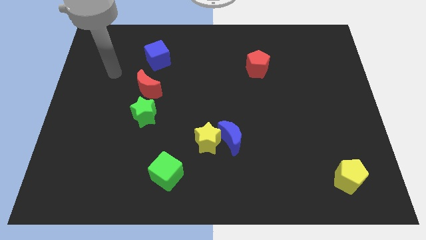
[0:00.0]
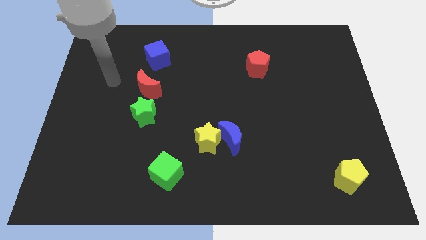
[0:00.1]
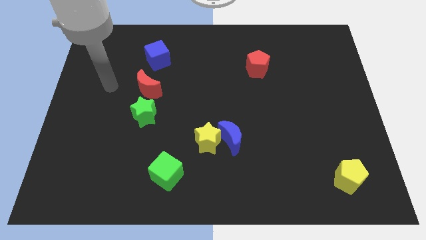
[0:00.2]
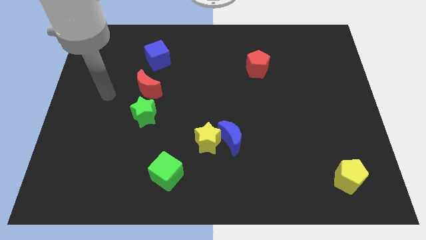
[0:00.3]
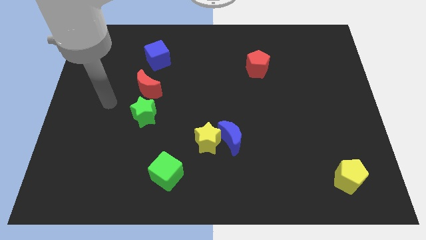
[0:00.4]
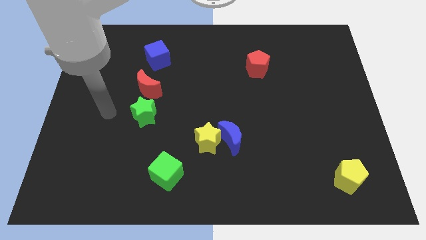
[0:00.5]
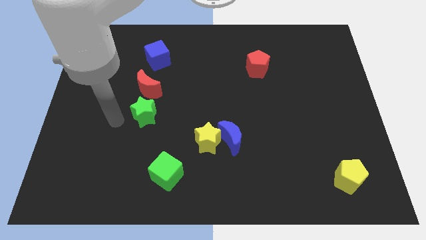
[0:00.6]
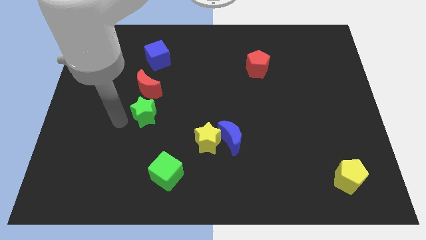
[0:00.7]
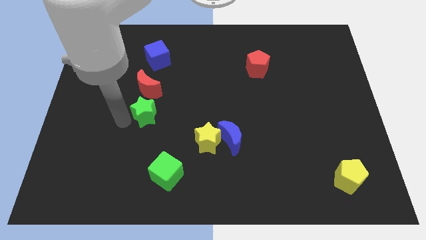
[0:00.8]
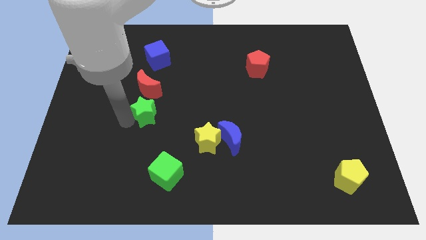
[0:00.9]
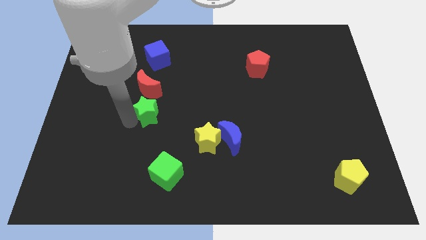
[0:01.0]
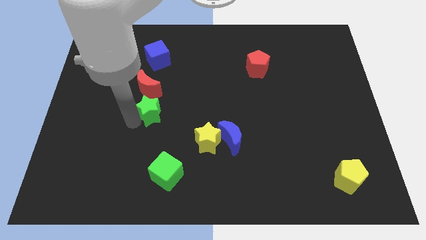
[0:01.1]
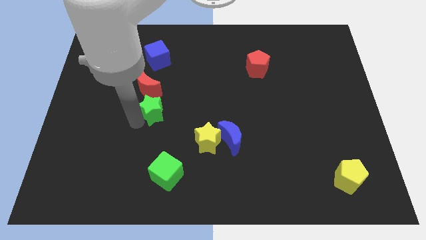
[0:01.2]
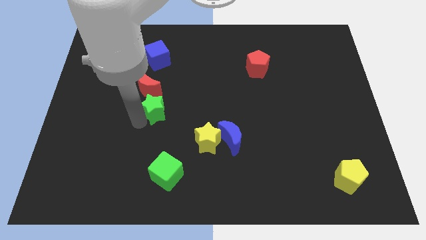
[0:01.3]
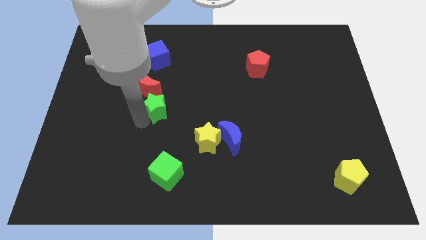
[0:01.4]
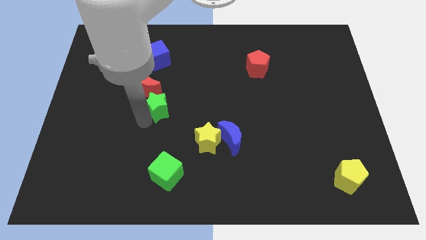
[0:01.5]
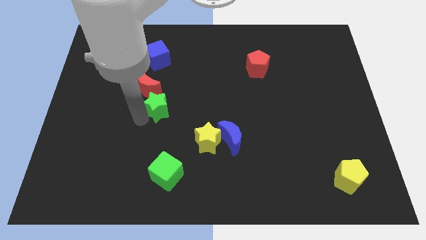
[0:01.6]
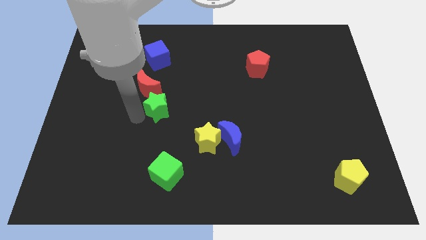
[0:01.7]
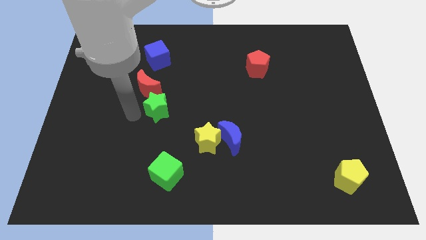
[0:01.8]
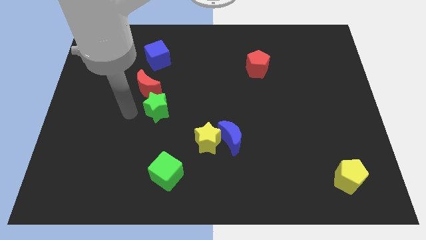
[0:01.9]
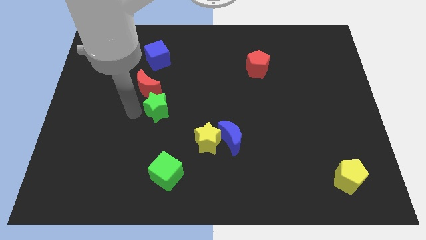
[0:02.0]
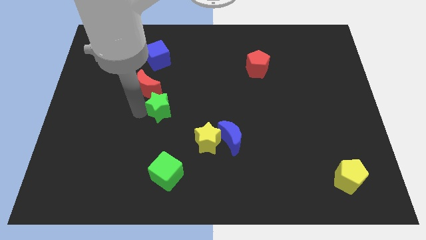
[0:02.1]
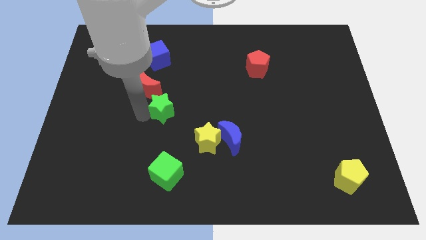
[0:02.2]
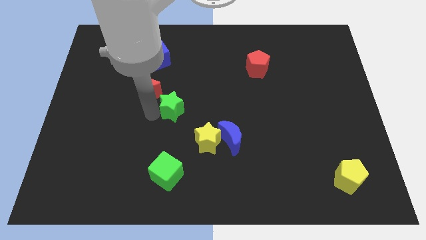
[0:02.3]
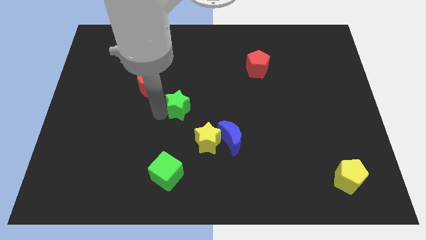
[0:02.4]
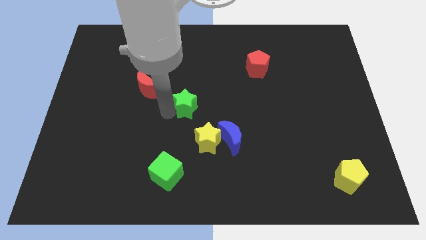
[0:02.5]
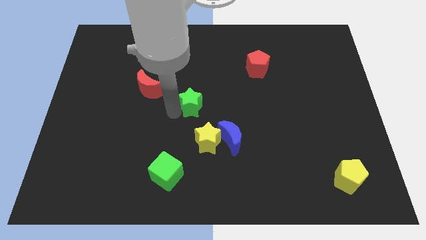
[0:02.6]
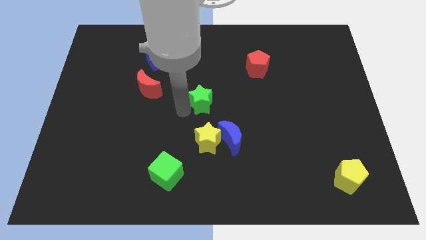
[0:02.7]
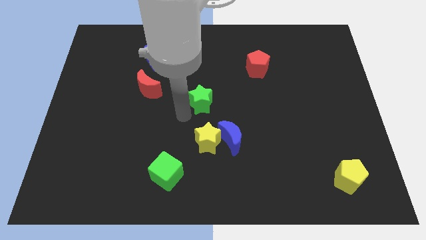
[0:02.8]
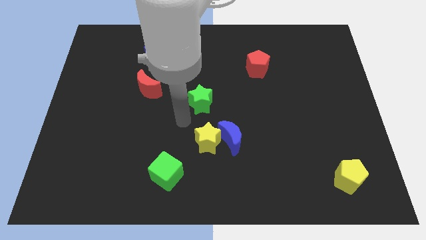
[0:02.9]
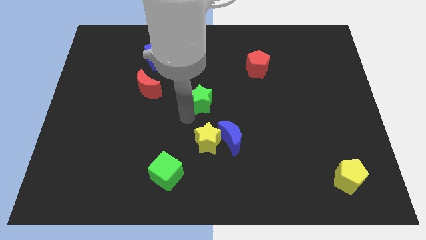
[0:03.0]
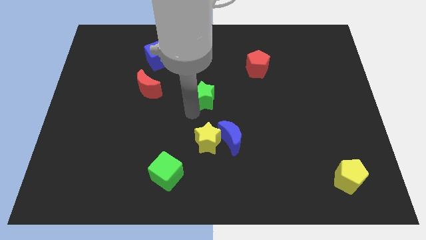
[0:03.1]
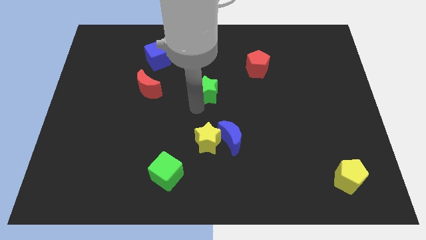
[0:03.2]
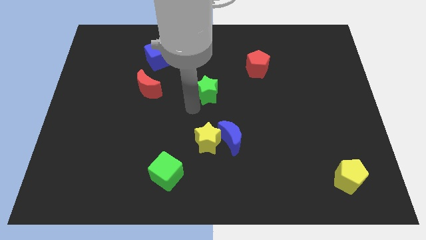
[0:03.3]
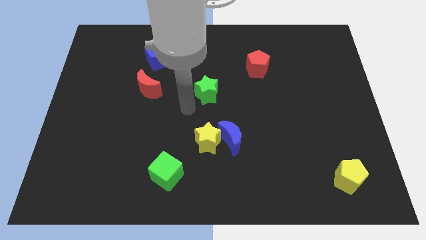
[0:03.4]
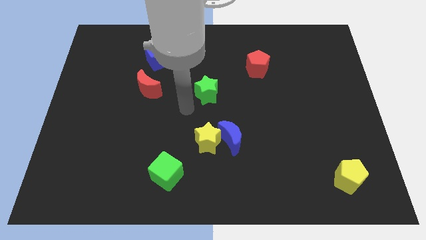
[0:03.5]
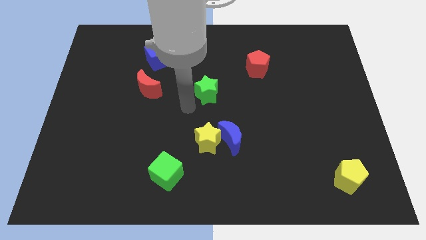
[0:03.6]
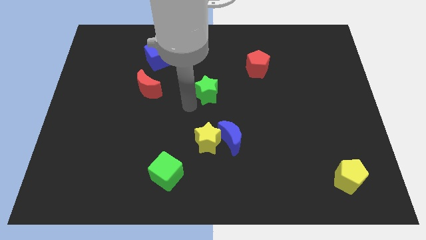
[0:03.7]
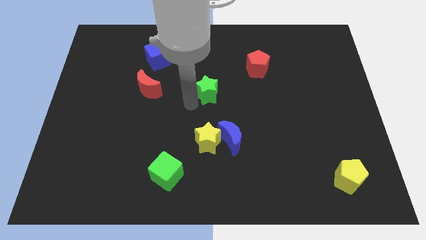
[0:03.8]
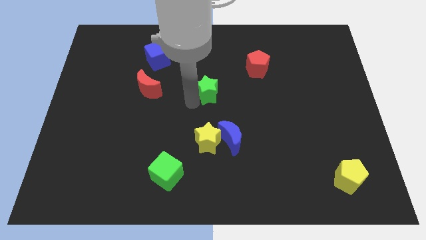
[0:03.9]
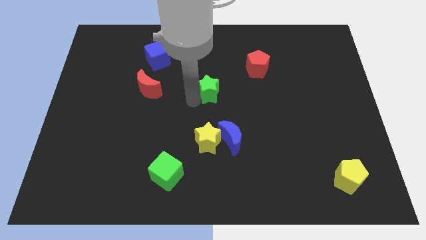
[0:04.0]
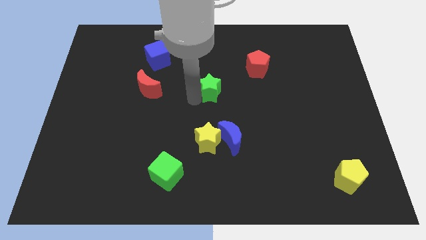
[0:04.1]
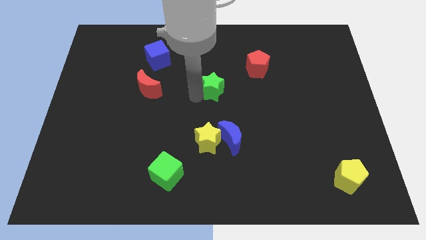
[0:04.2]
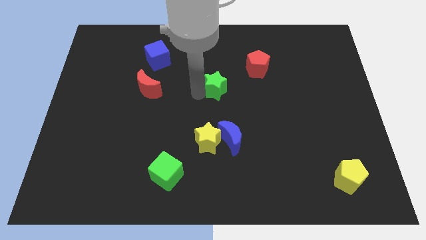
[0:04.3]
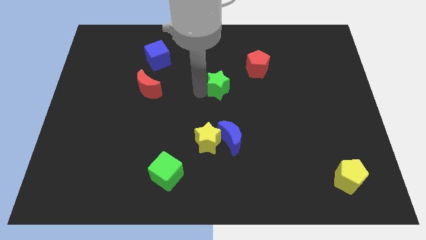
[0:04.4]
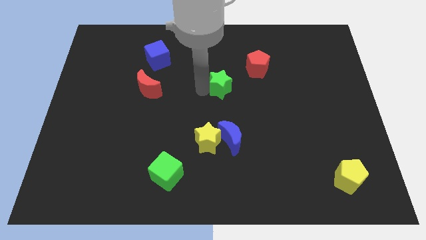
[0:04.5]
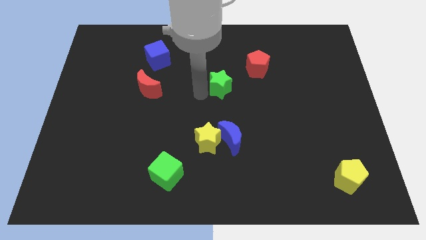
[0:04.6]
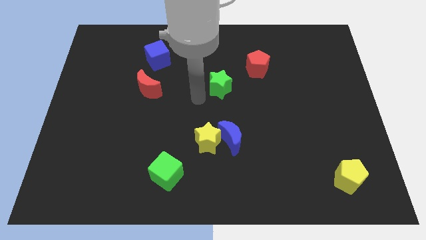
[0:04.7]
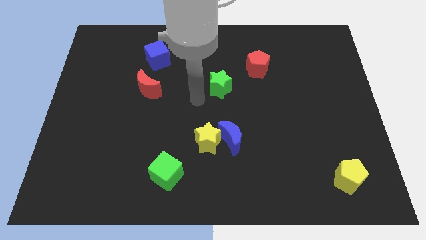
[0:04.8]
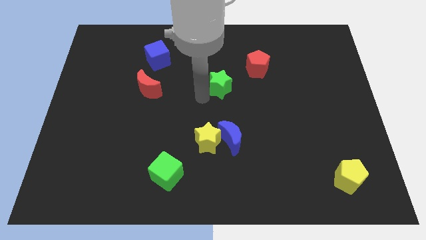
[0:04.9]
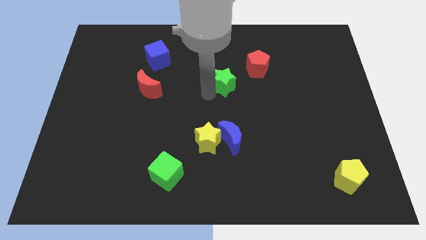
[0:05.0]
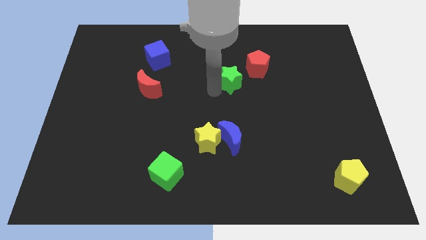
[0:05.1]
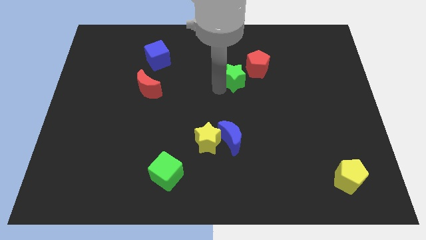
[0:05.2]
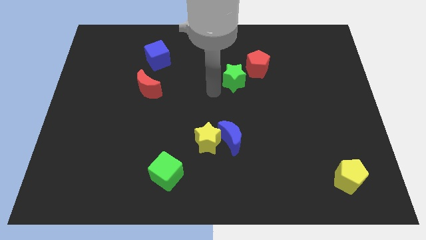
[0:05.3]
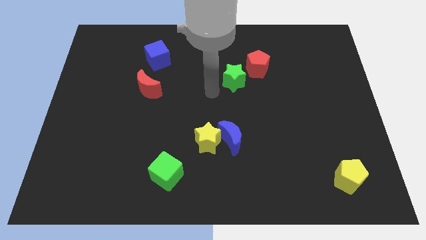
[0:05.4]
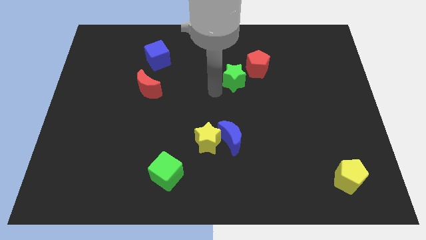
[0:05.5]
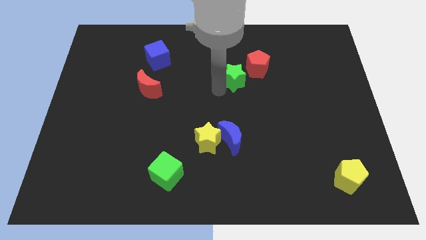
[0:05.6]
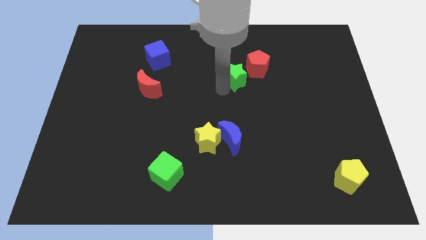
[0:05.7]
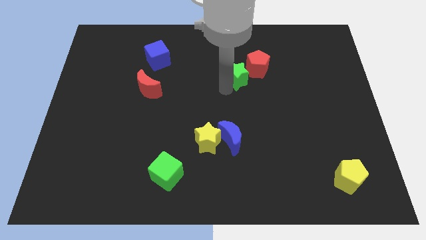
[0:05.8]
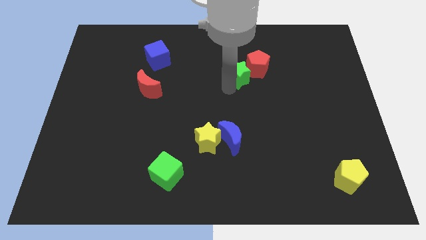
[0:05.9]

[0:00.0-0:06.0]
slide the green star to the red pentagon

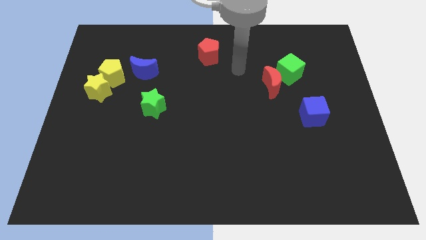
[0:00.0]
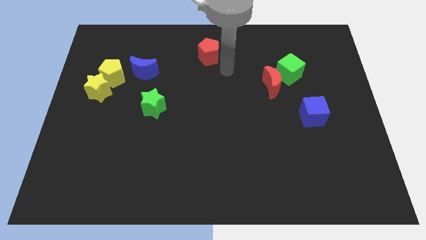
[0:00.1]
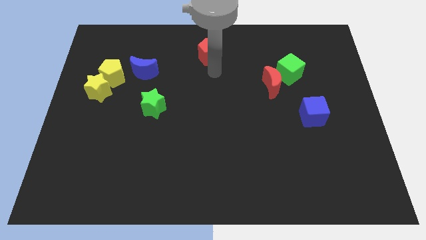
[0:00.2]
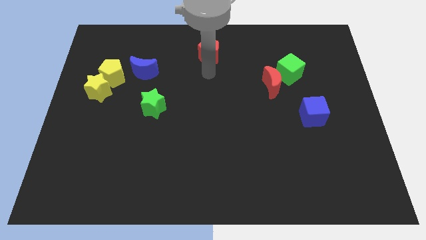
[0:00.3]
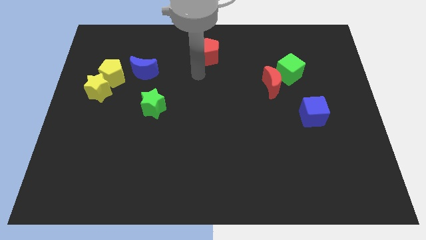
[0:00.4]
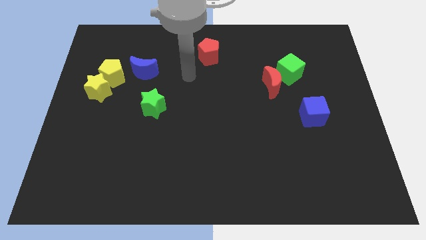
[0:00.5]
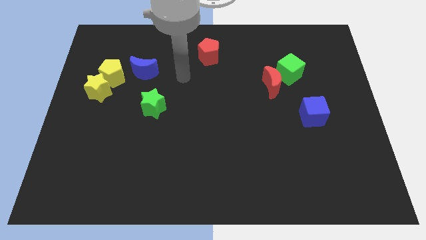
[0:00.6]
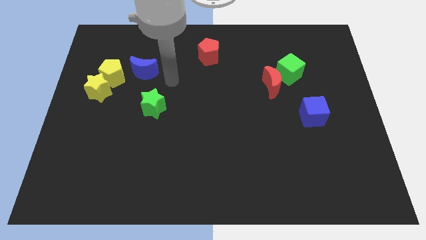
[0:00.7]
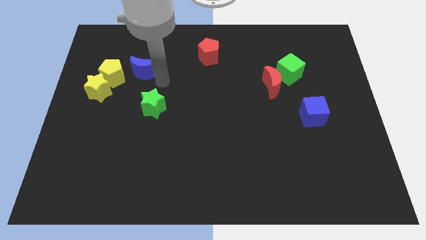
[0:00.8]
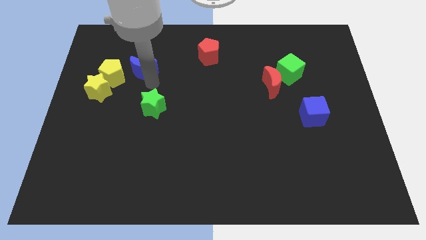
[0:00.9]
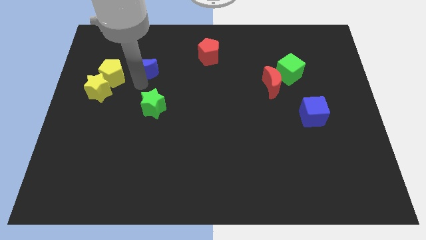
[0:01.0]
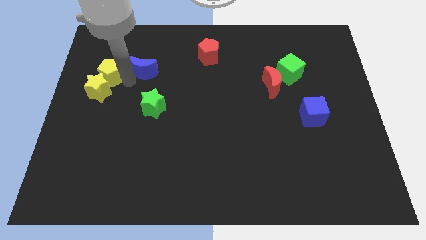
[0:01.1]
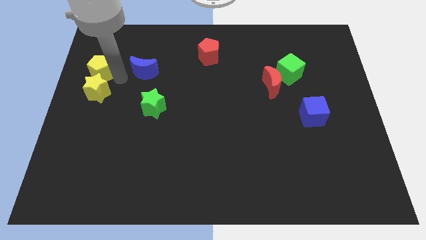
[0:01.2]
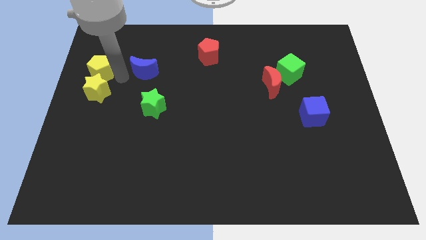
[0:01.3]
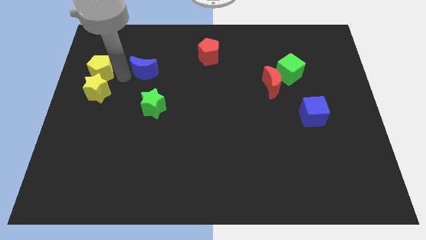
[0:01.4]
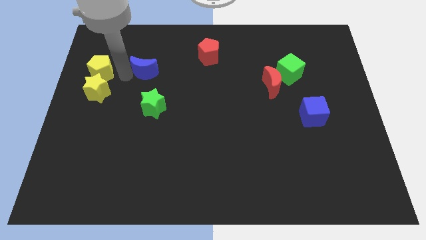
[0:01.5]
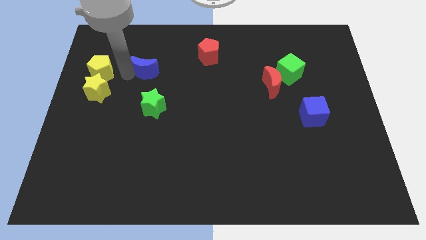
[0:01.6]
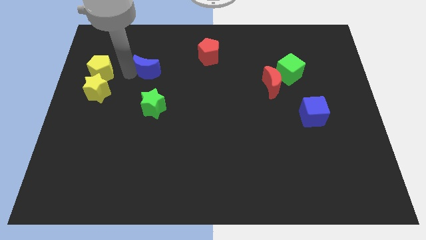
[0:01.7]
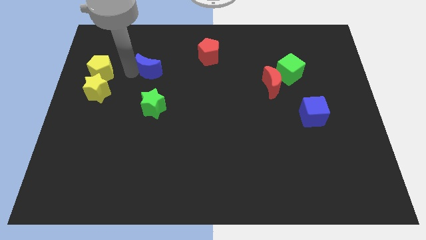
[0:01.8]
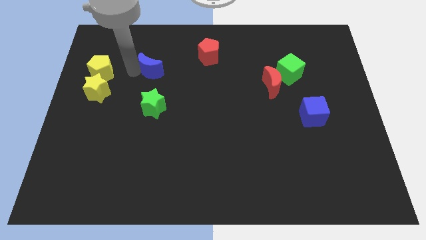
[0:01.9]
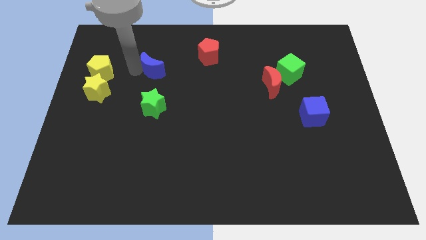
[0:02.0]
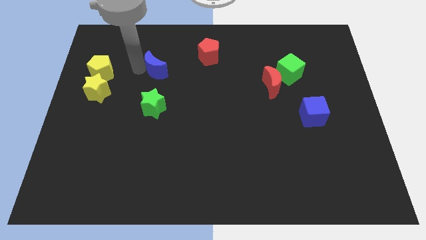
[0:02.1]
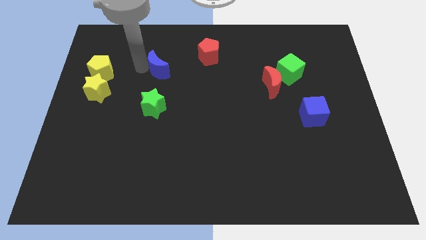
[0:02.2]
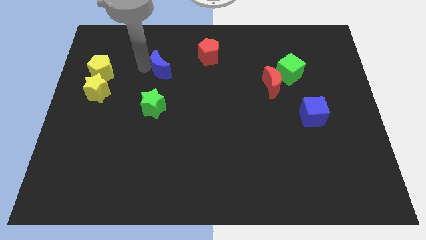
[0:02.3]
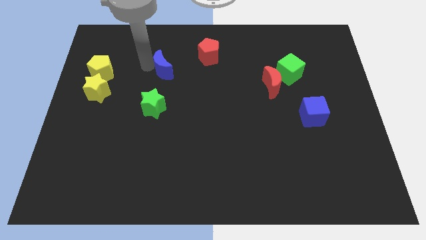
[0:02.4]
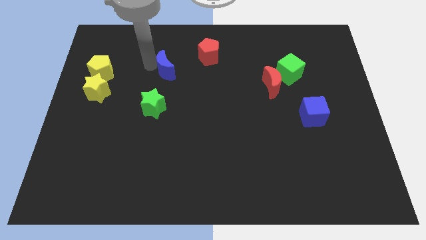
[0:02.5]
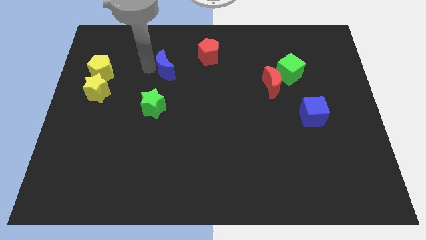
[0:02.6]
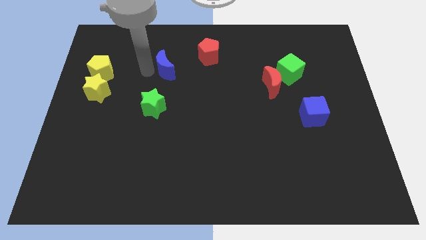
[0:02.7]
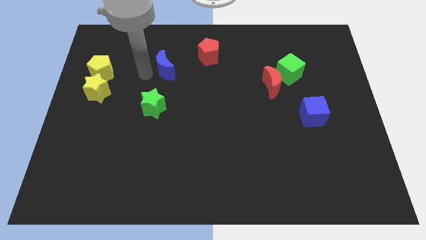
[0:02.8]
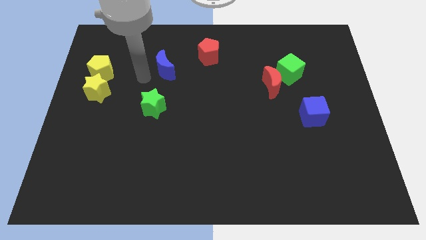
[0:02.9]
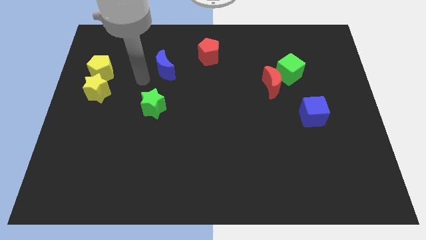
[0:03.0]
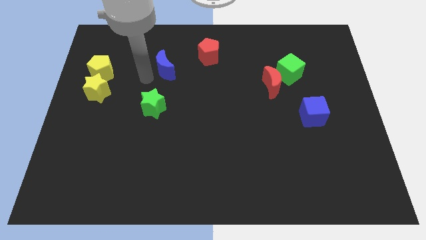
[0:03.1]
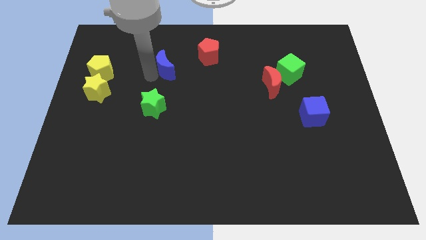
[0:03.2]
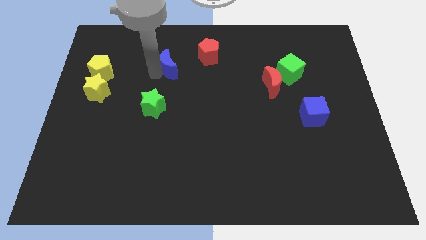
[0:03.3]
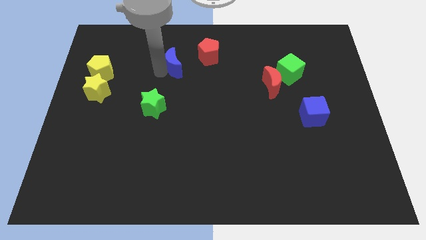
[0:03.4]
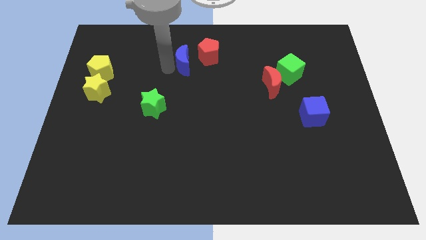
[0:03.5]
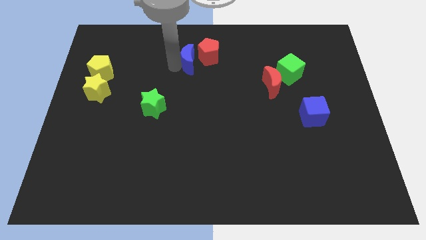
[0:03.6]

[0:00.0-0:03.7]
slide the blue moon close to the red pentagon
